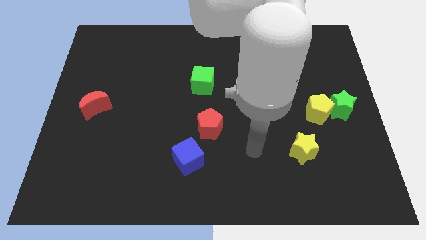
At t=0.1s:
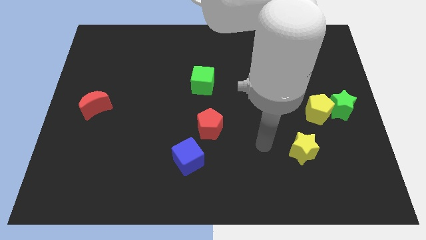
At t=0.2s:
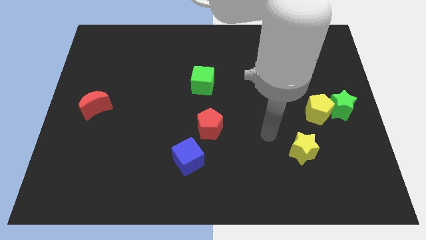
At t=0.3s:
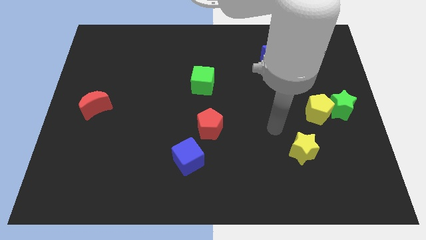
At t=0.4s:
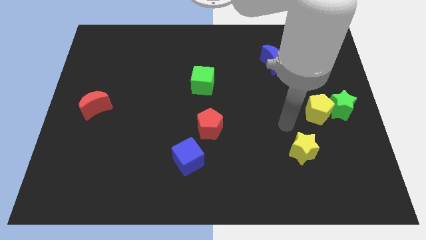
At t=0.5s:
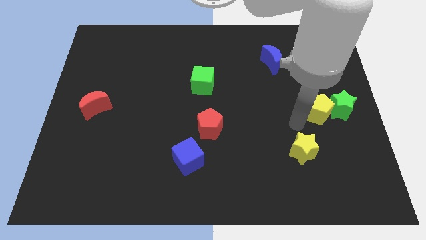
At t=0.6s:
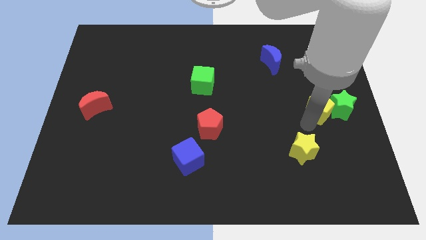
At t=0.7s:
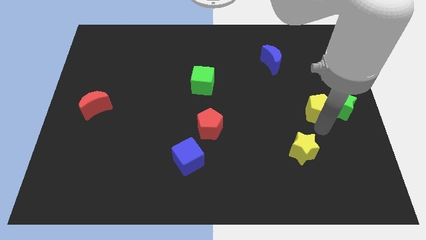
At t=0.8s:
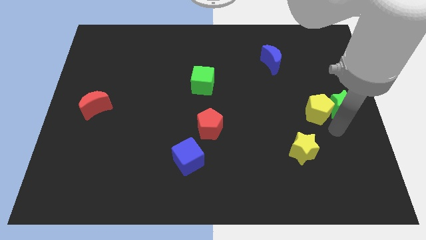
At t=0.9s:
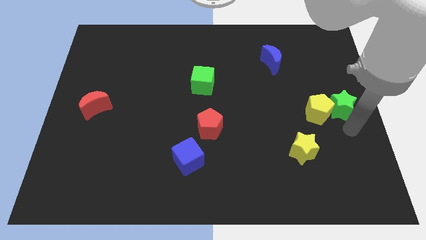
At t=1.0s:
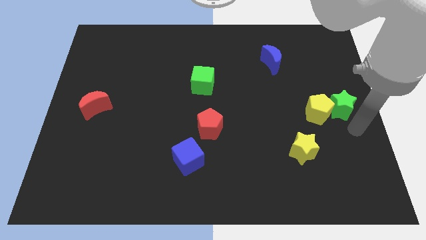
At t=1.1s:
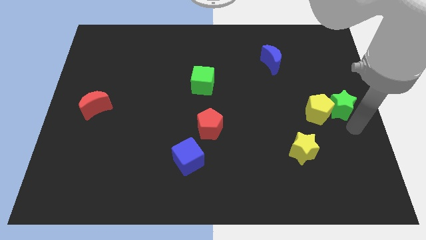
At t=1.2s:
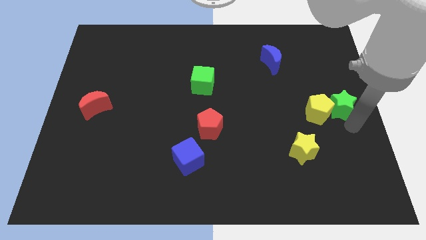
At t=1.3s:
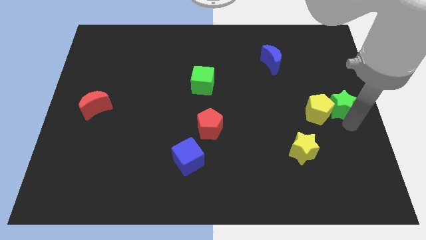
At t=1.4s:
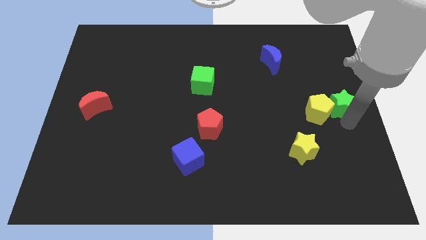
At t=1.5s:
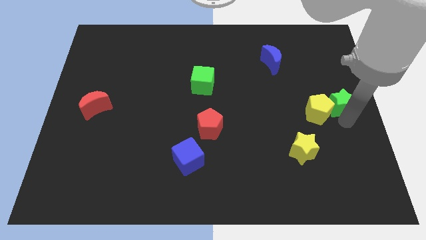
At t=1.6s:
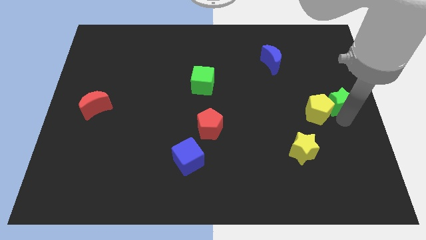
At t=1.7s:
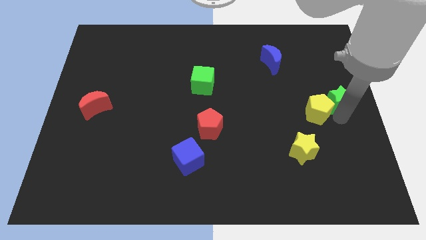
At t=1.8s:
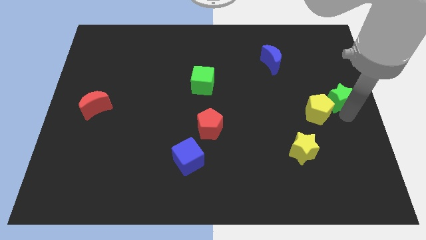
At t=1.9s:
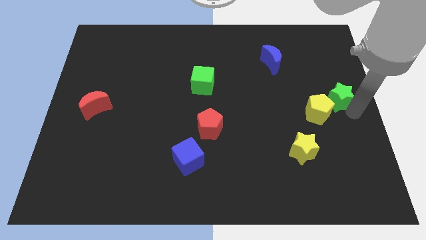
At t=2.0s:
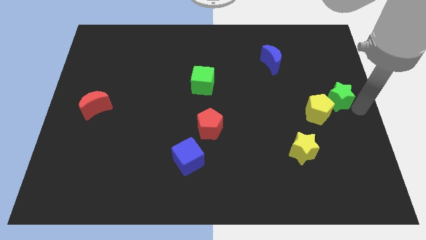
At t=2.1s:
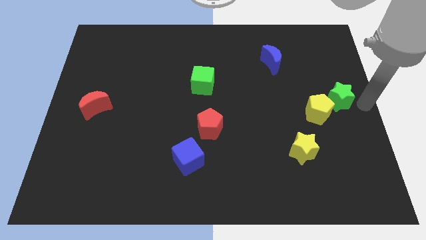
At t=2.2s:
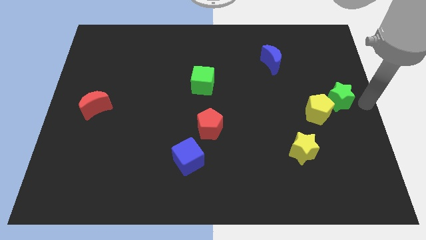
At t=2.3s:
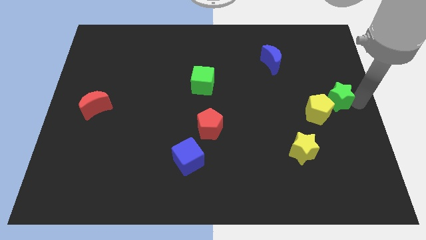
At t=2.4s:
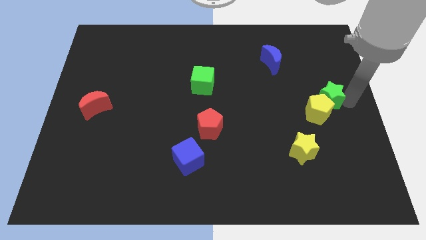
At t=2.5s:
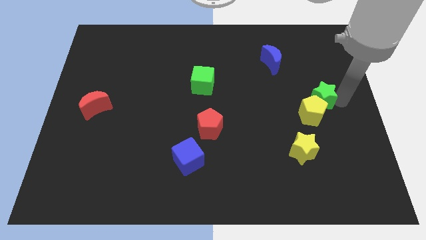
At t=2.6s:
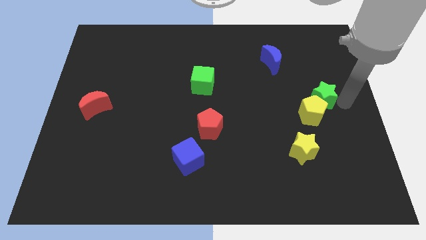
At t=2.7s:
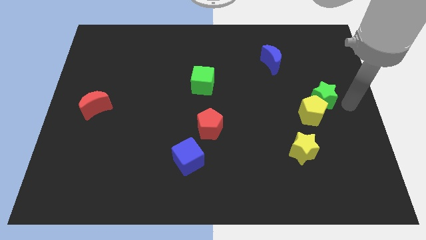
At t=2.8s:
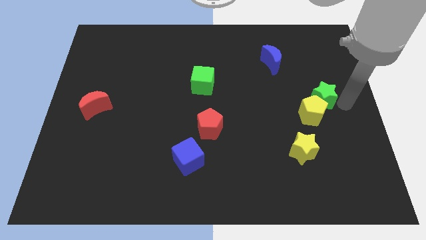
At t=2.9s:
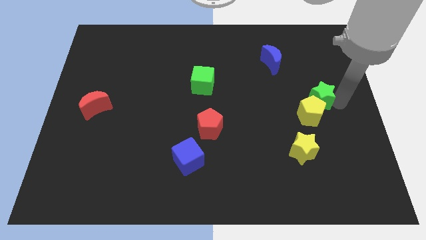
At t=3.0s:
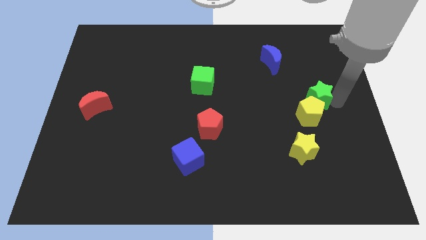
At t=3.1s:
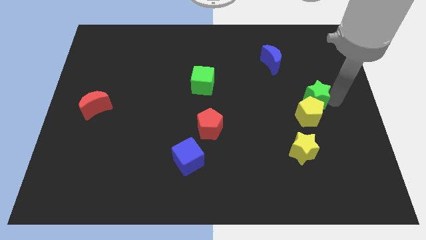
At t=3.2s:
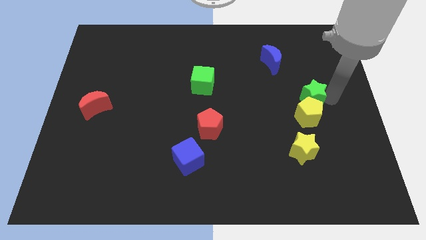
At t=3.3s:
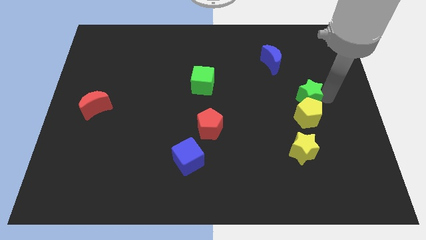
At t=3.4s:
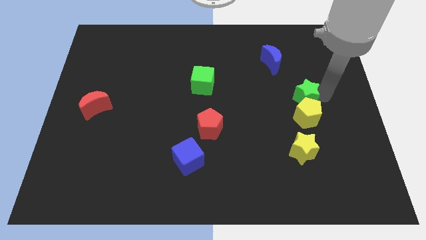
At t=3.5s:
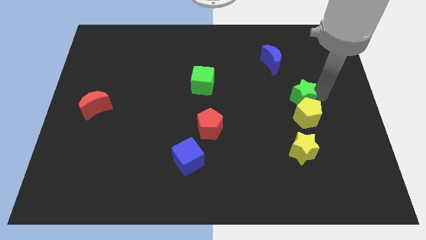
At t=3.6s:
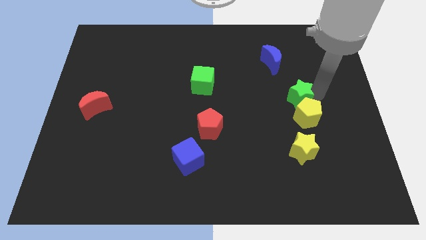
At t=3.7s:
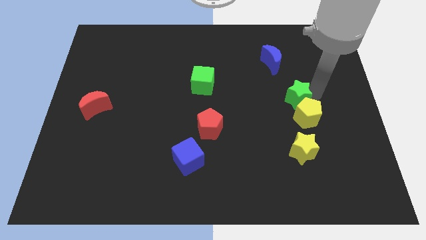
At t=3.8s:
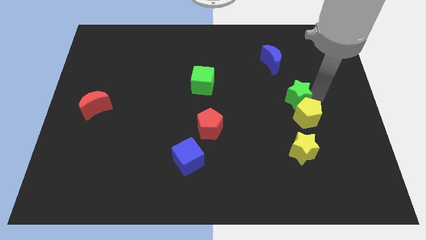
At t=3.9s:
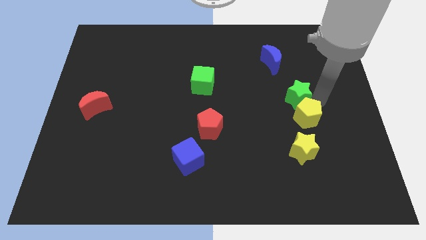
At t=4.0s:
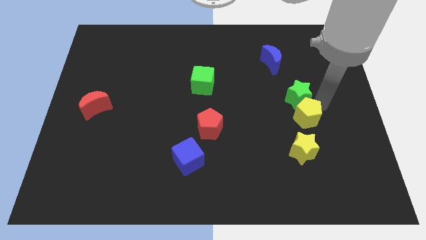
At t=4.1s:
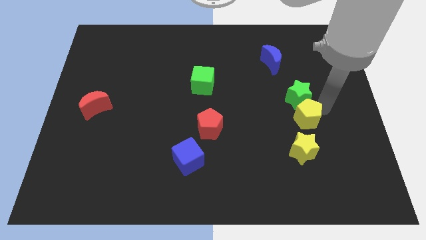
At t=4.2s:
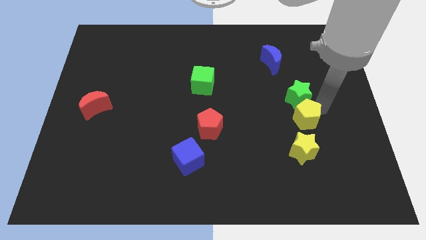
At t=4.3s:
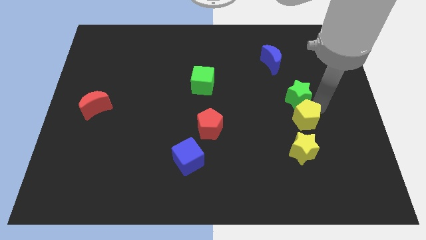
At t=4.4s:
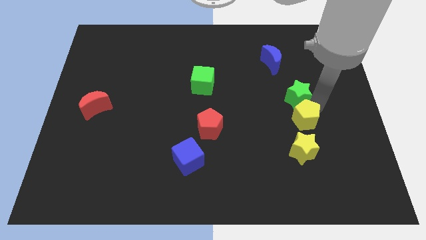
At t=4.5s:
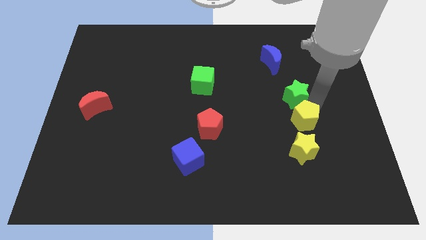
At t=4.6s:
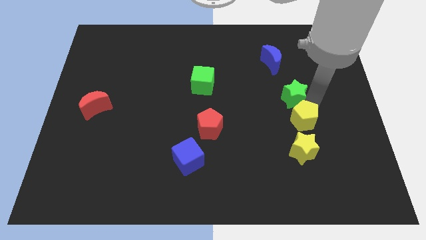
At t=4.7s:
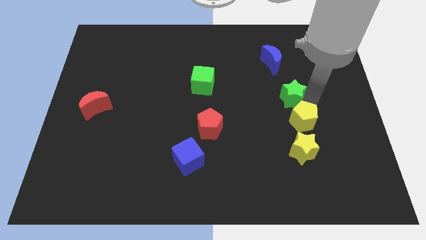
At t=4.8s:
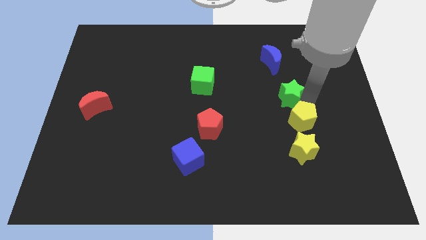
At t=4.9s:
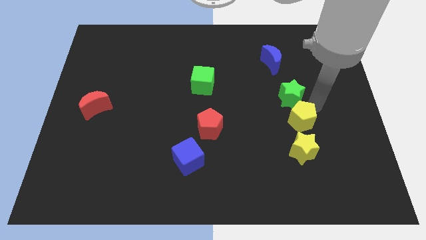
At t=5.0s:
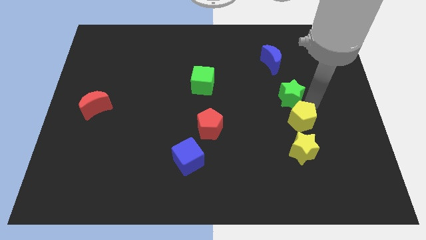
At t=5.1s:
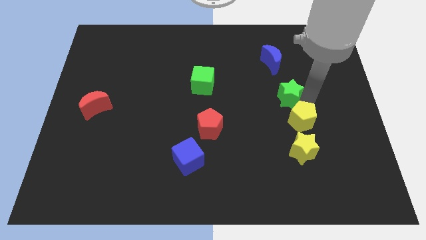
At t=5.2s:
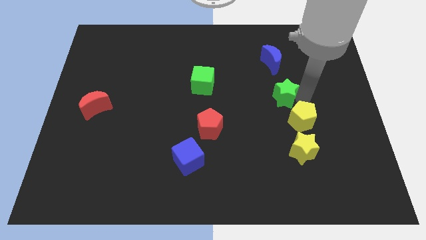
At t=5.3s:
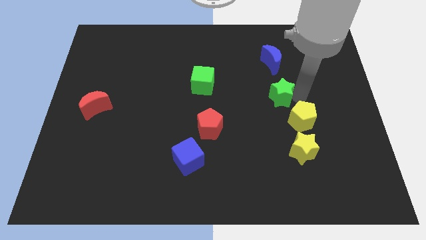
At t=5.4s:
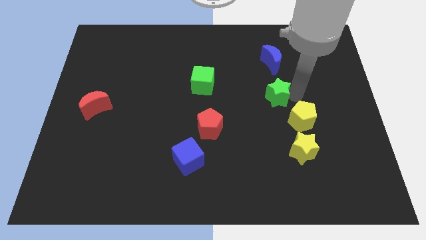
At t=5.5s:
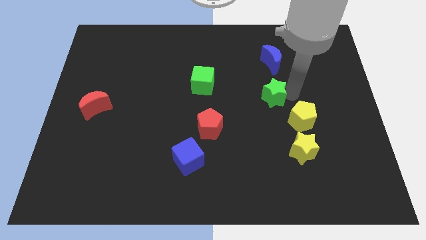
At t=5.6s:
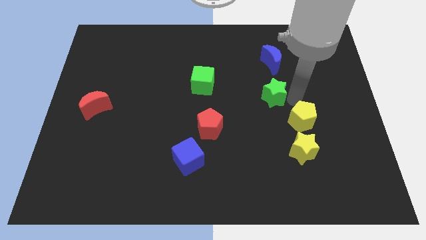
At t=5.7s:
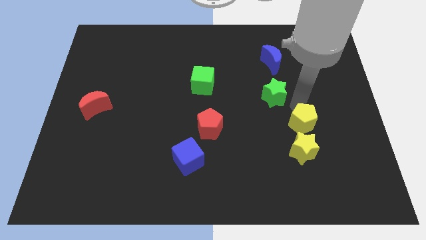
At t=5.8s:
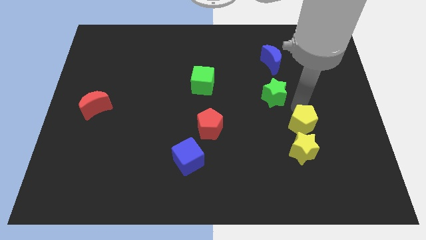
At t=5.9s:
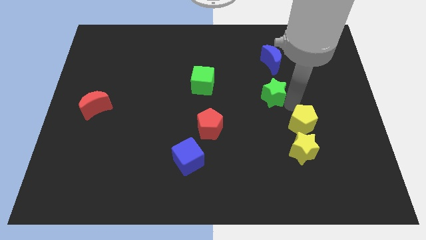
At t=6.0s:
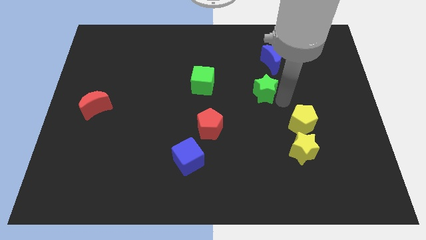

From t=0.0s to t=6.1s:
push the green star right of the green cube
